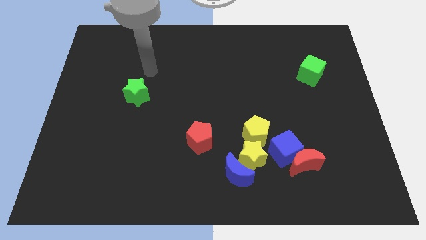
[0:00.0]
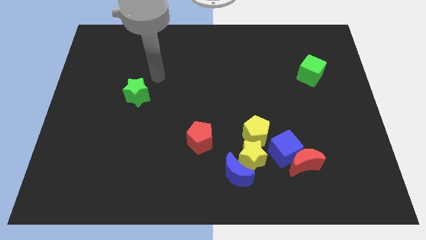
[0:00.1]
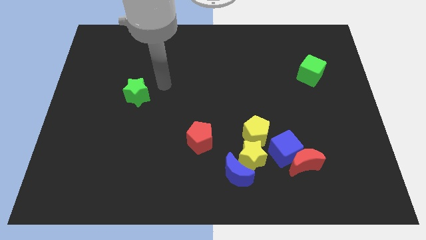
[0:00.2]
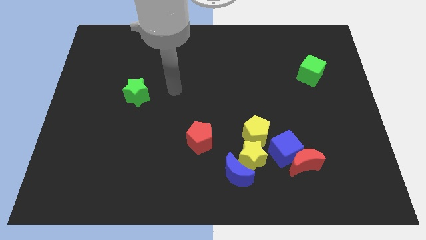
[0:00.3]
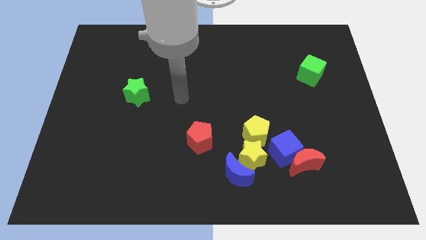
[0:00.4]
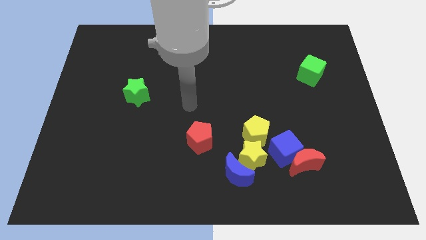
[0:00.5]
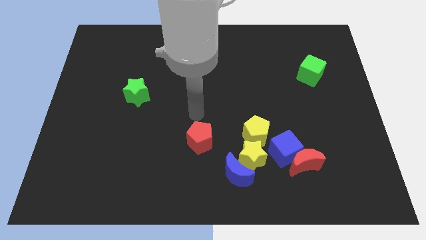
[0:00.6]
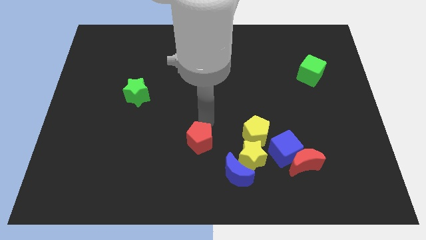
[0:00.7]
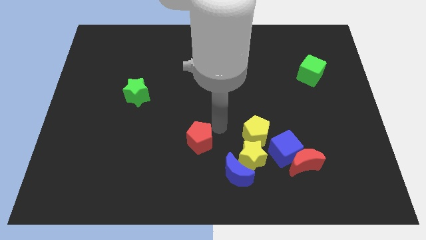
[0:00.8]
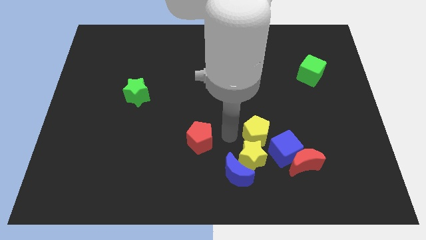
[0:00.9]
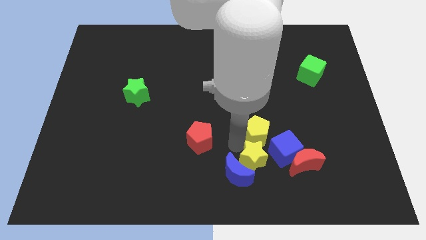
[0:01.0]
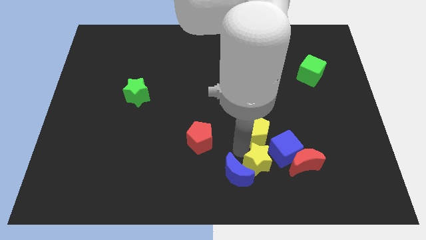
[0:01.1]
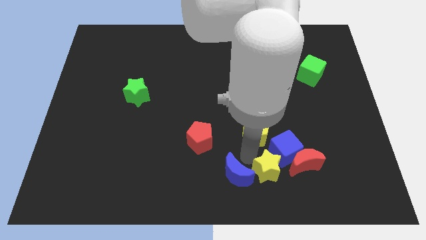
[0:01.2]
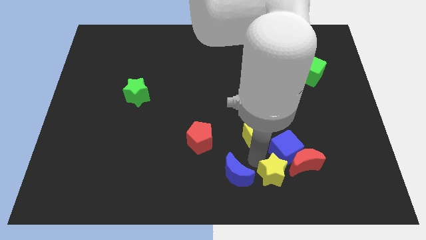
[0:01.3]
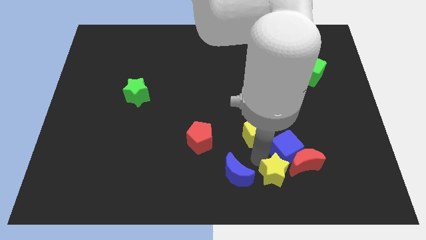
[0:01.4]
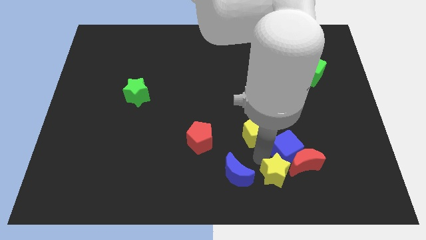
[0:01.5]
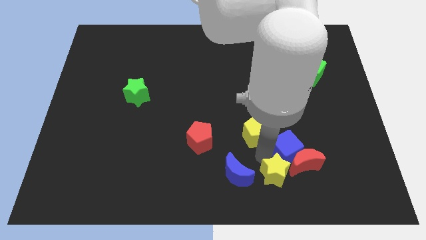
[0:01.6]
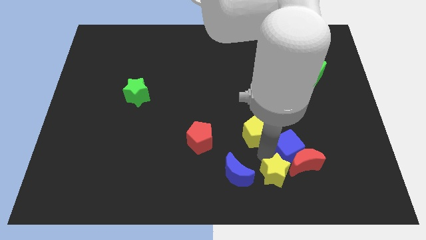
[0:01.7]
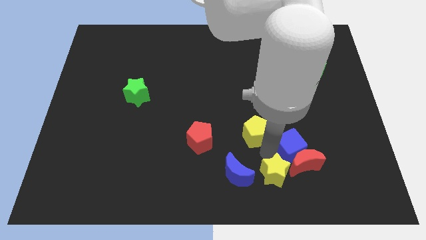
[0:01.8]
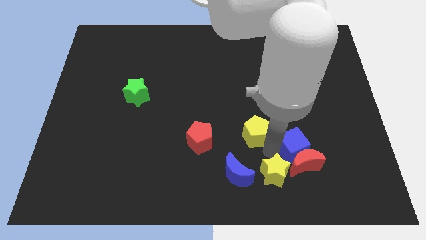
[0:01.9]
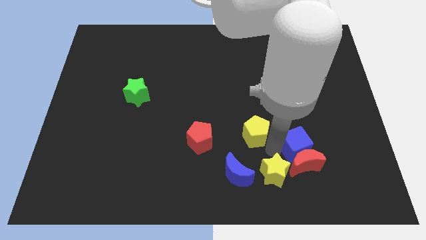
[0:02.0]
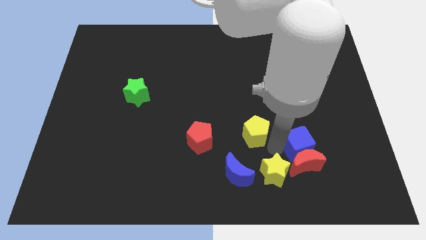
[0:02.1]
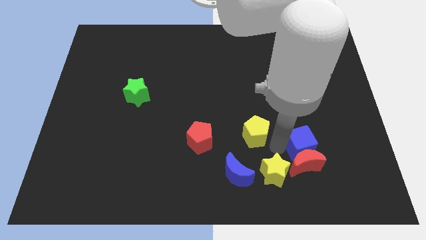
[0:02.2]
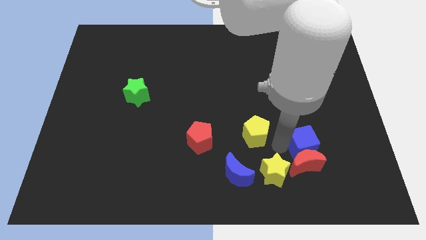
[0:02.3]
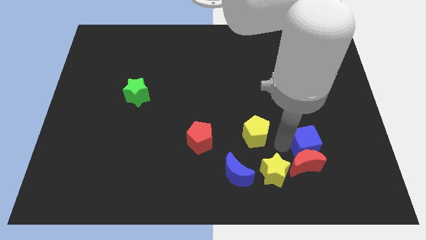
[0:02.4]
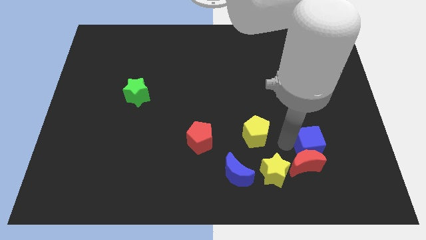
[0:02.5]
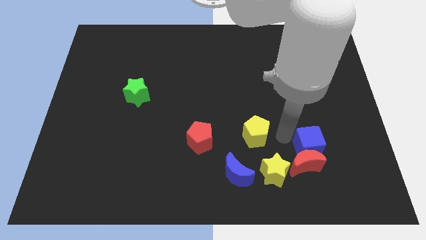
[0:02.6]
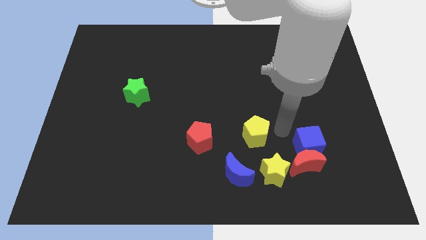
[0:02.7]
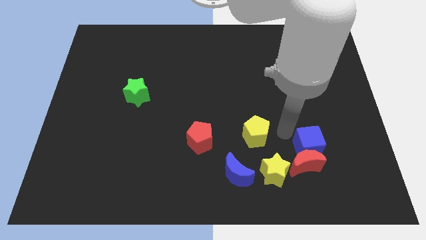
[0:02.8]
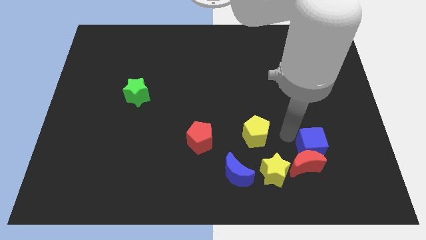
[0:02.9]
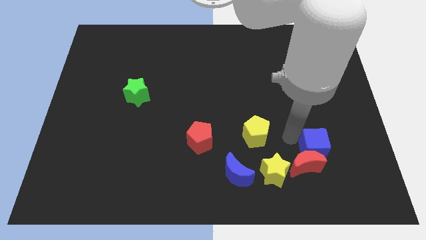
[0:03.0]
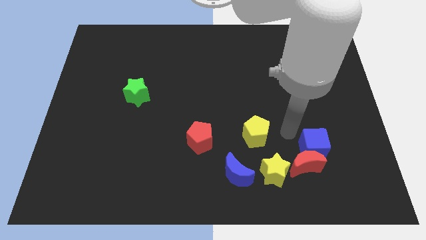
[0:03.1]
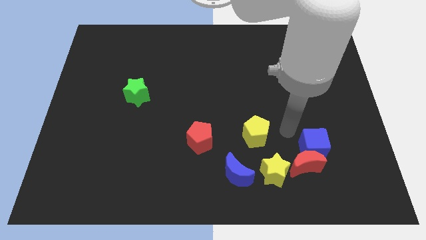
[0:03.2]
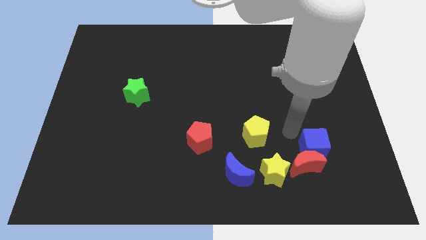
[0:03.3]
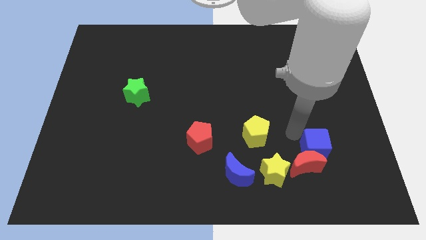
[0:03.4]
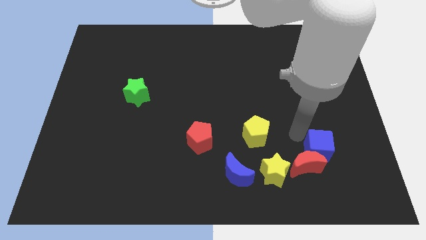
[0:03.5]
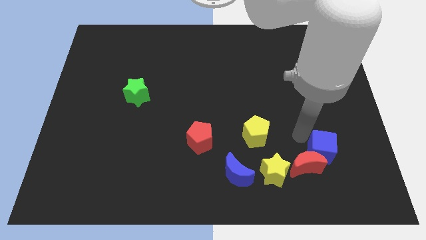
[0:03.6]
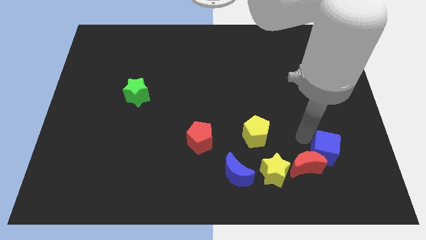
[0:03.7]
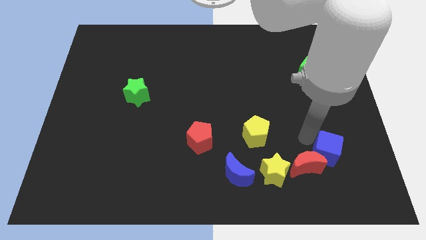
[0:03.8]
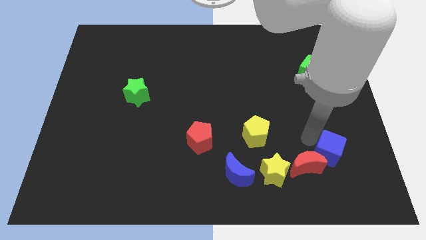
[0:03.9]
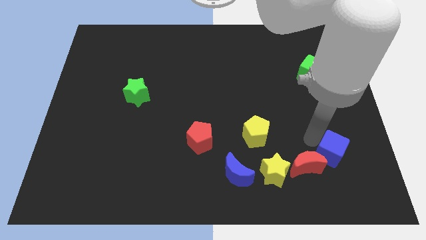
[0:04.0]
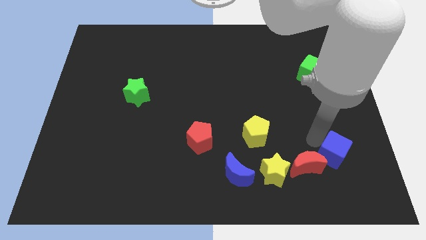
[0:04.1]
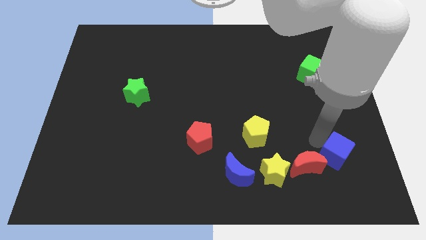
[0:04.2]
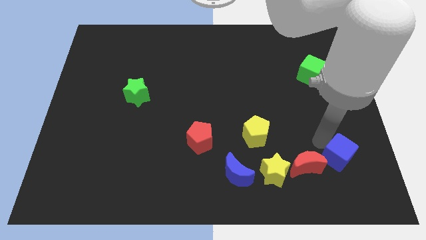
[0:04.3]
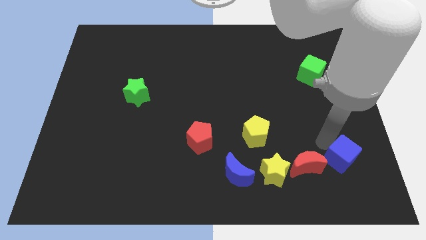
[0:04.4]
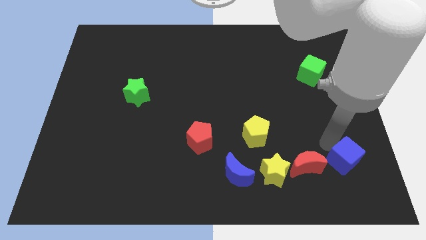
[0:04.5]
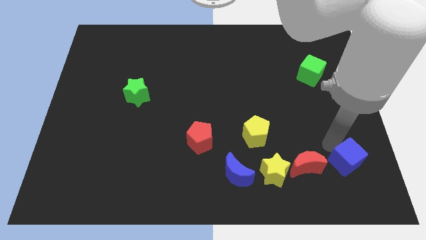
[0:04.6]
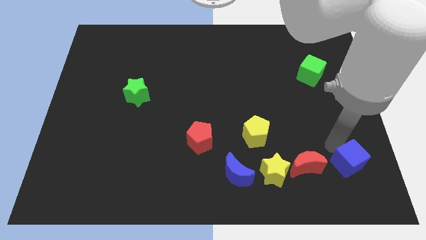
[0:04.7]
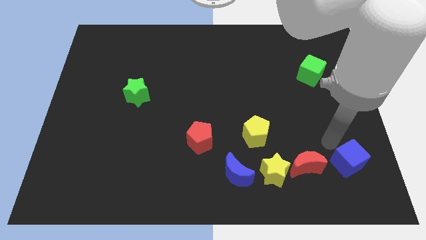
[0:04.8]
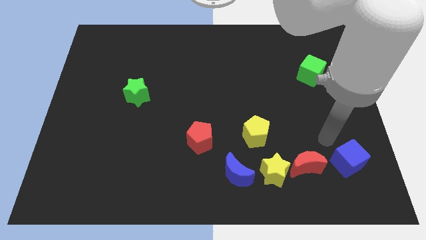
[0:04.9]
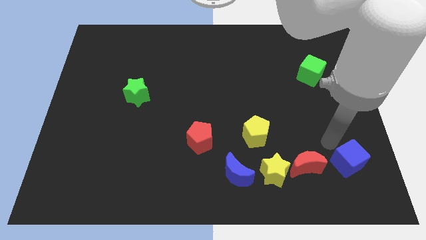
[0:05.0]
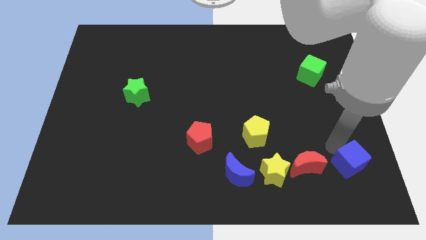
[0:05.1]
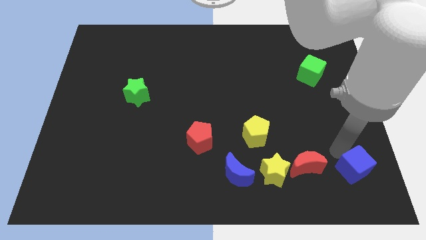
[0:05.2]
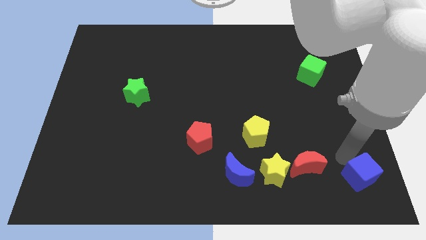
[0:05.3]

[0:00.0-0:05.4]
put the blue cube to the bottom right
